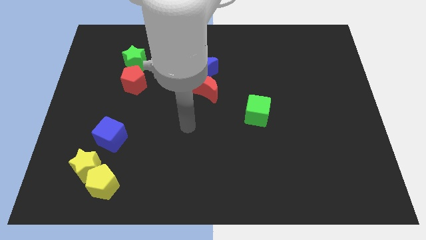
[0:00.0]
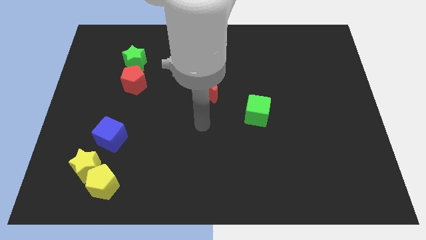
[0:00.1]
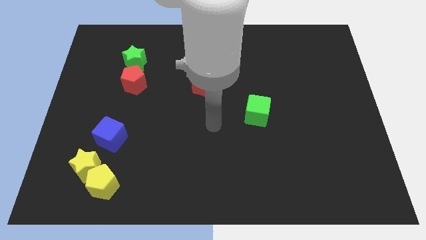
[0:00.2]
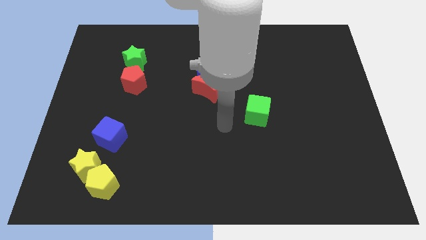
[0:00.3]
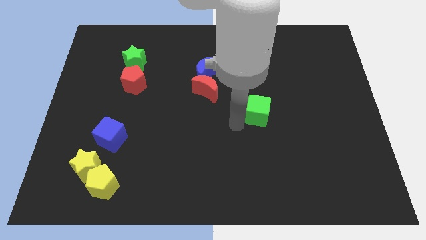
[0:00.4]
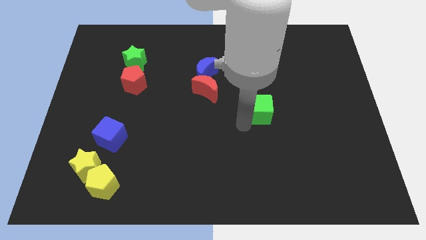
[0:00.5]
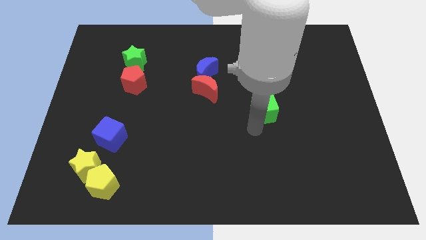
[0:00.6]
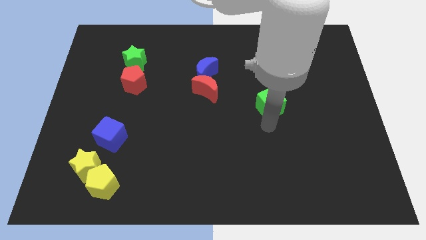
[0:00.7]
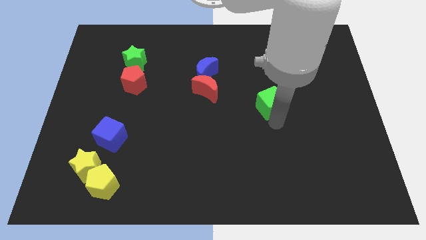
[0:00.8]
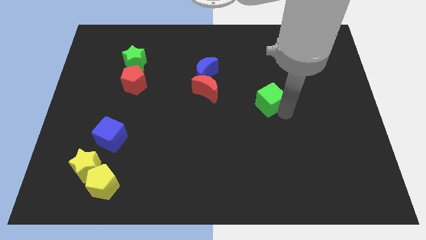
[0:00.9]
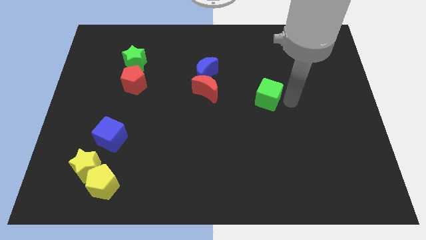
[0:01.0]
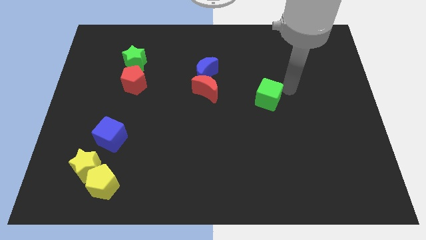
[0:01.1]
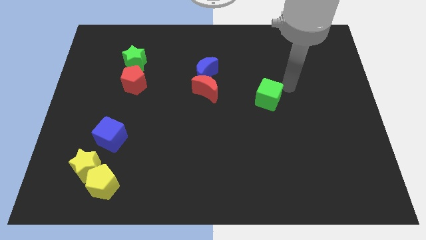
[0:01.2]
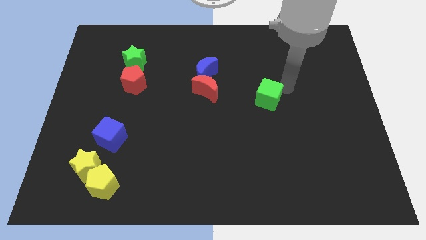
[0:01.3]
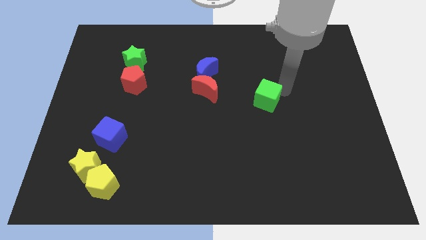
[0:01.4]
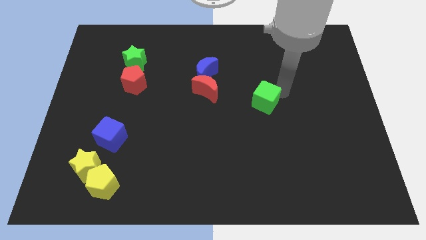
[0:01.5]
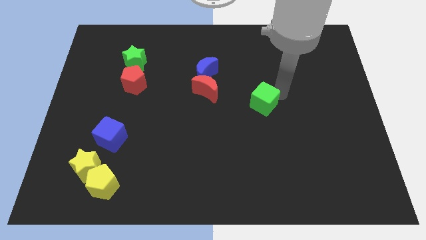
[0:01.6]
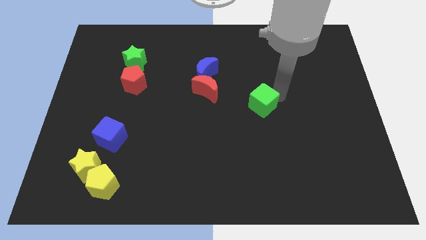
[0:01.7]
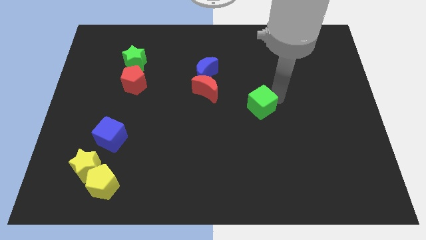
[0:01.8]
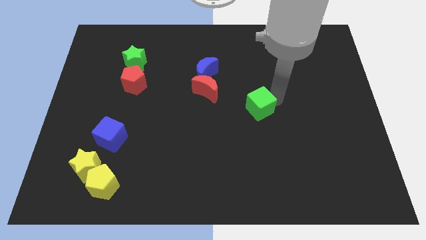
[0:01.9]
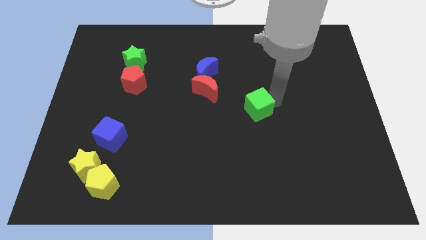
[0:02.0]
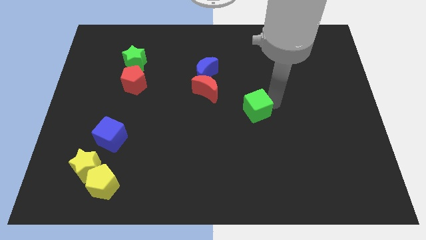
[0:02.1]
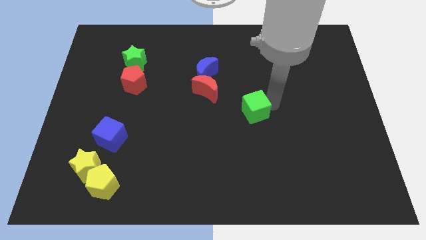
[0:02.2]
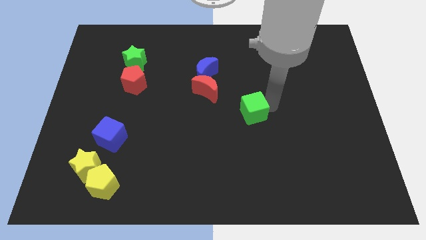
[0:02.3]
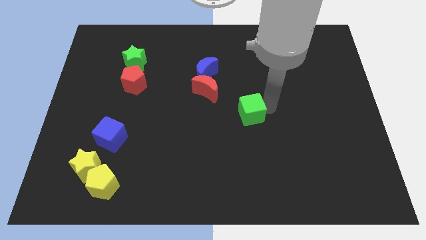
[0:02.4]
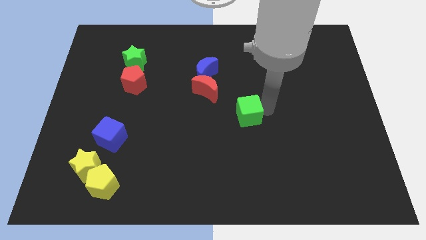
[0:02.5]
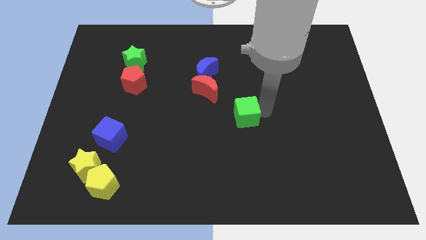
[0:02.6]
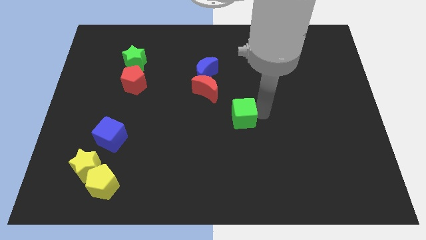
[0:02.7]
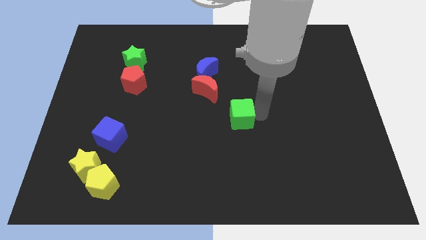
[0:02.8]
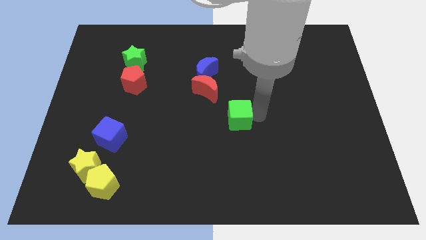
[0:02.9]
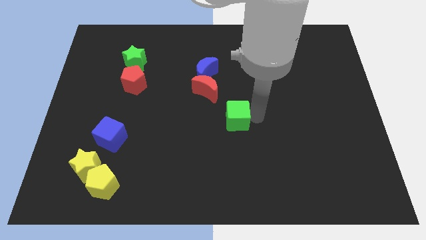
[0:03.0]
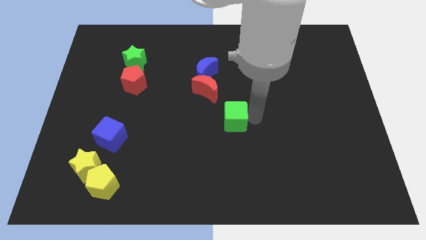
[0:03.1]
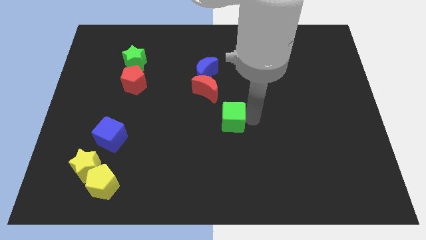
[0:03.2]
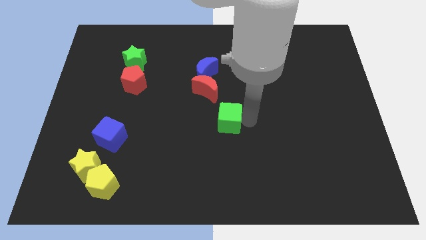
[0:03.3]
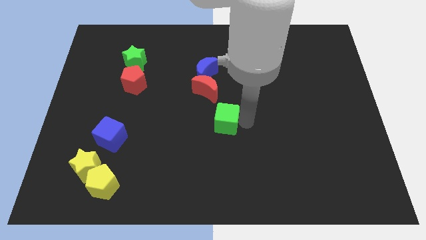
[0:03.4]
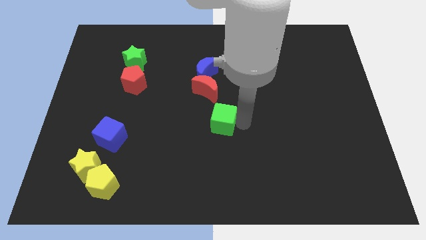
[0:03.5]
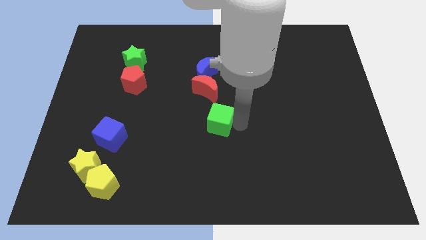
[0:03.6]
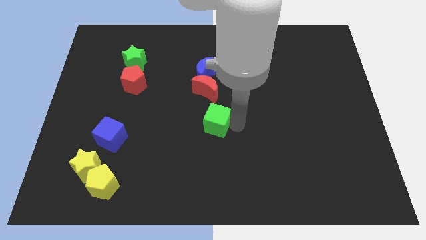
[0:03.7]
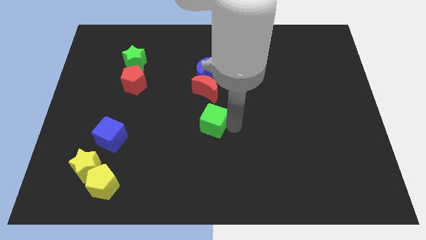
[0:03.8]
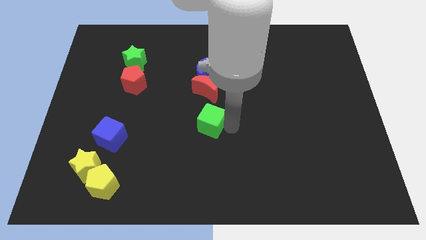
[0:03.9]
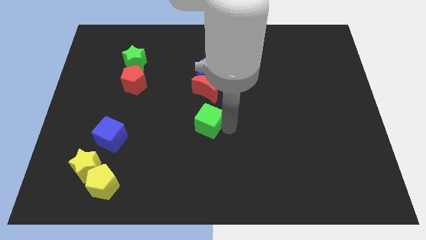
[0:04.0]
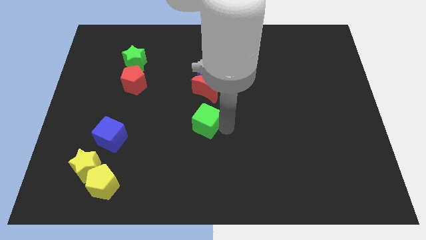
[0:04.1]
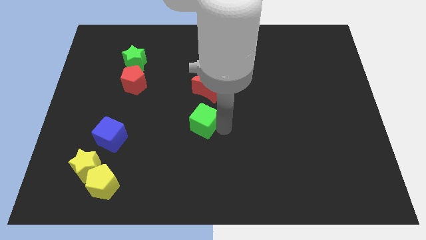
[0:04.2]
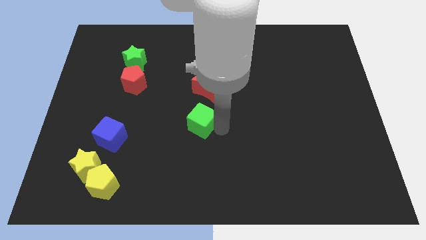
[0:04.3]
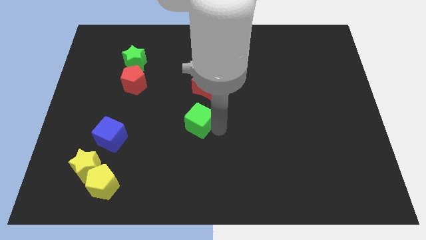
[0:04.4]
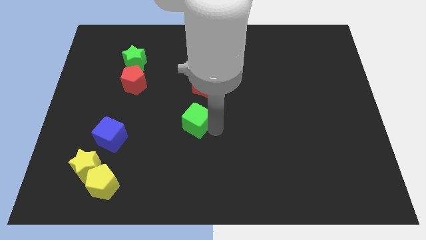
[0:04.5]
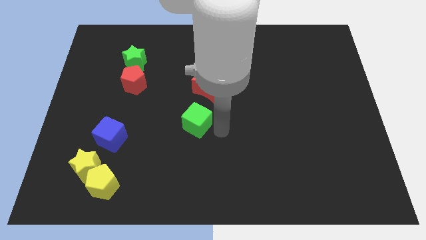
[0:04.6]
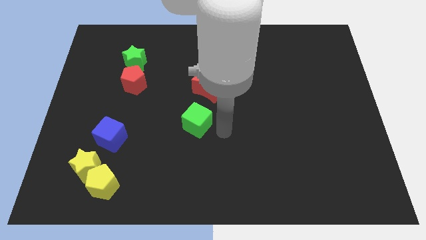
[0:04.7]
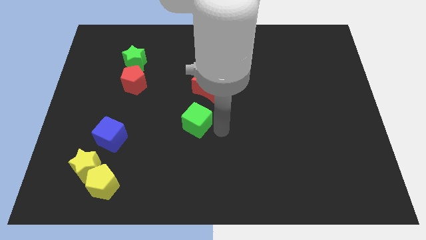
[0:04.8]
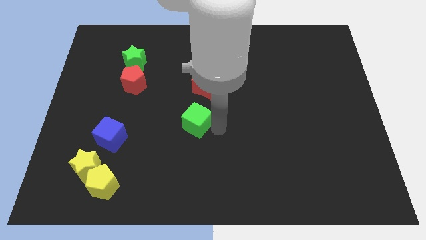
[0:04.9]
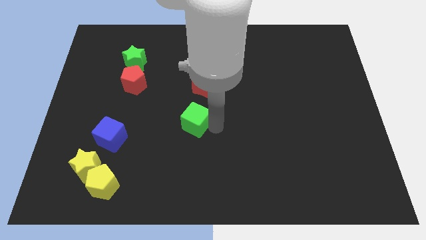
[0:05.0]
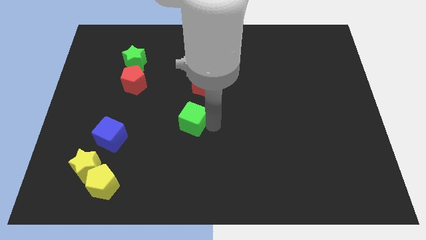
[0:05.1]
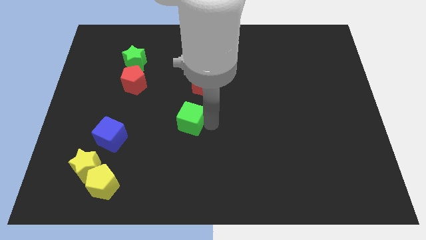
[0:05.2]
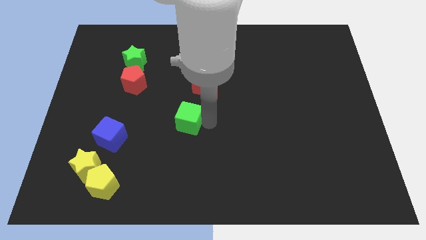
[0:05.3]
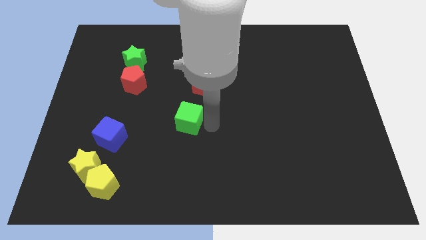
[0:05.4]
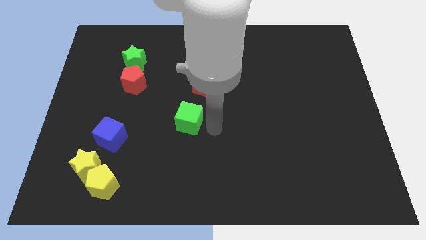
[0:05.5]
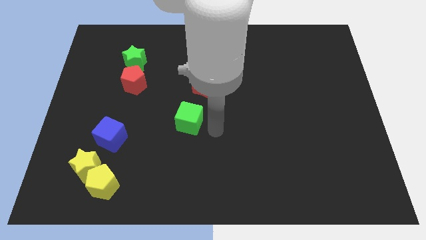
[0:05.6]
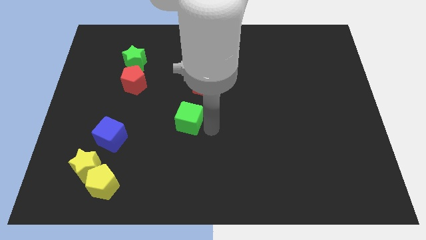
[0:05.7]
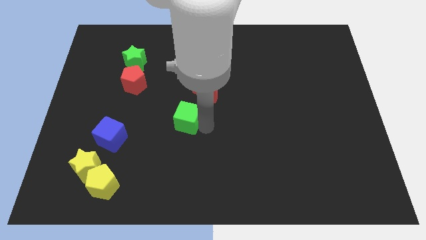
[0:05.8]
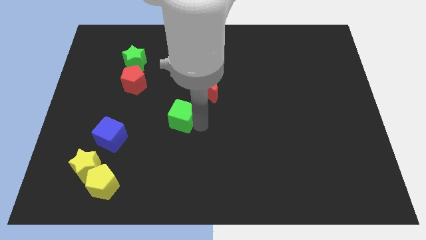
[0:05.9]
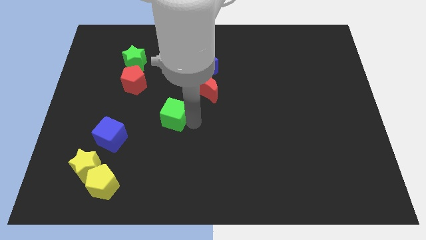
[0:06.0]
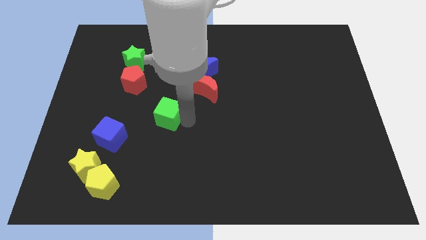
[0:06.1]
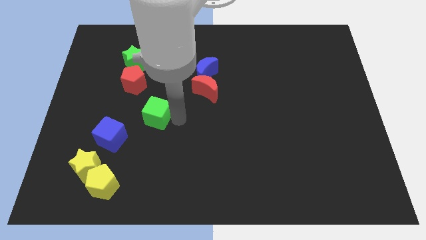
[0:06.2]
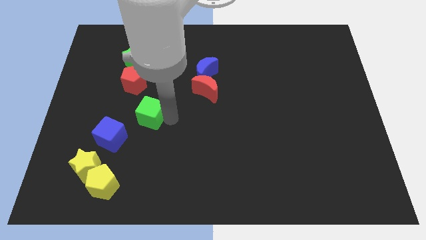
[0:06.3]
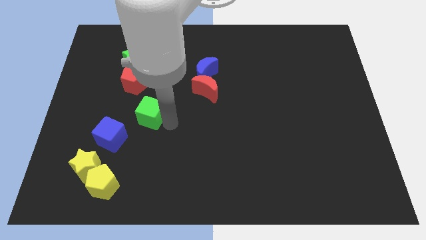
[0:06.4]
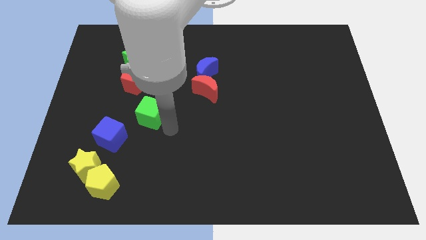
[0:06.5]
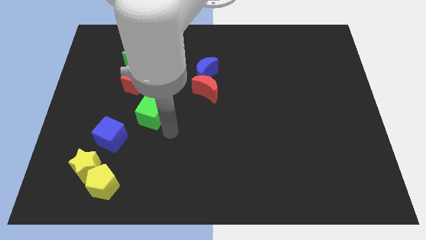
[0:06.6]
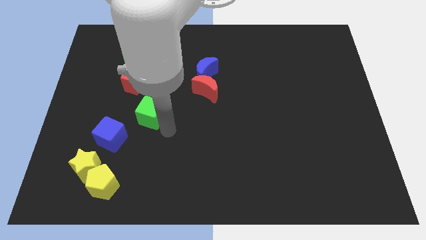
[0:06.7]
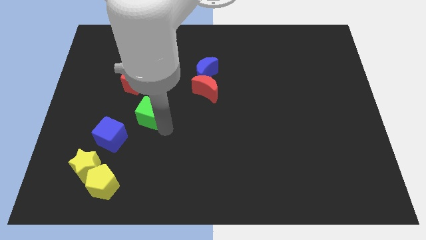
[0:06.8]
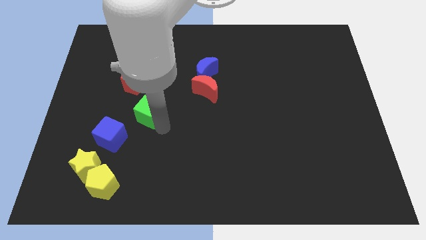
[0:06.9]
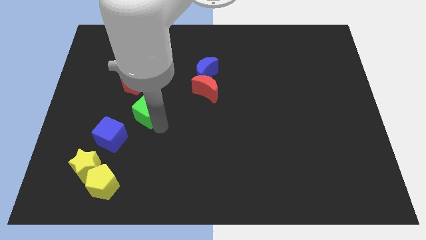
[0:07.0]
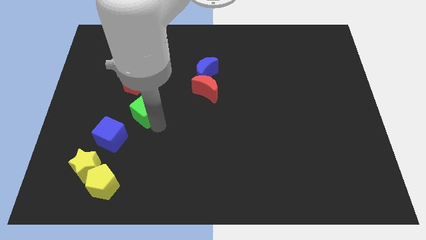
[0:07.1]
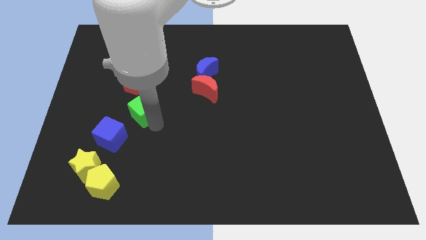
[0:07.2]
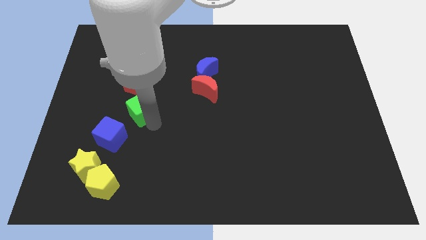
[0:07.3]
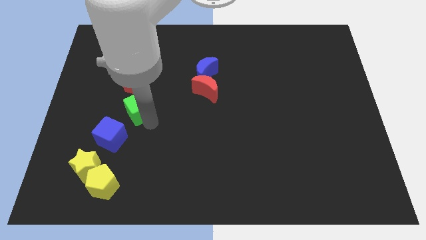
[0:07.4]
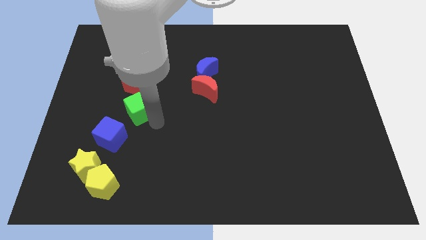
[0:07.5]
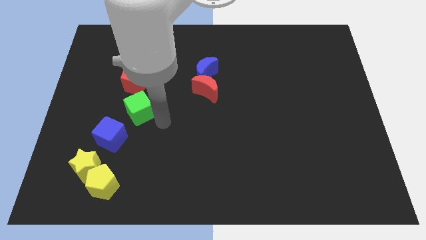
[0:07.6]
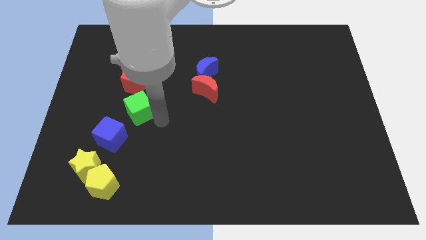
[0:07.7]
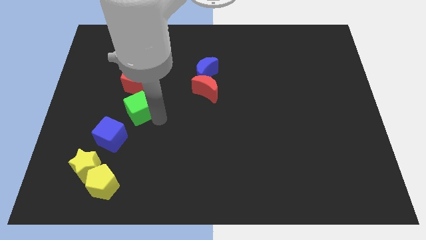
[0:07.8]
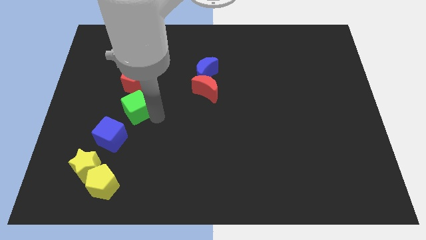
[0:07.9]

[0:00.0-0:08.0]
push the green cube to the top of the blue cube
